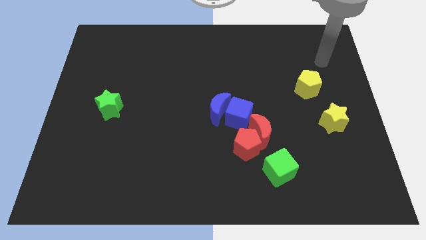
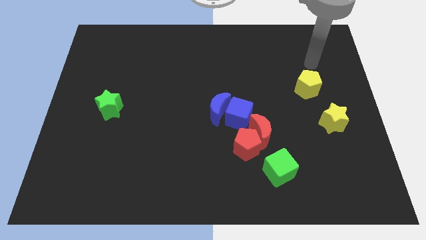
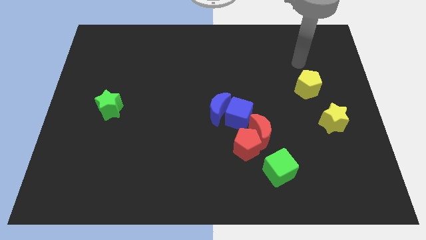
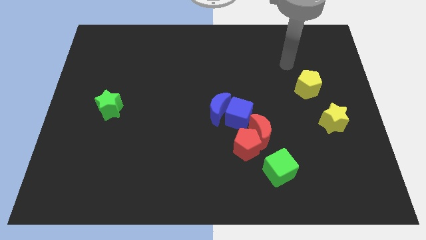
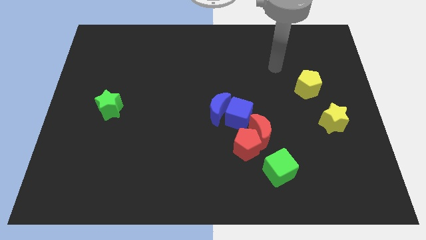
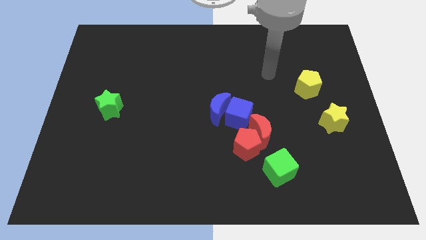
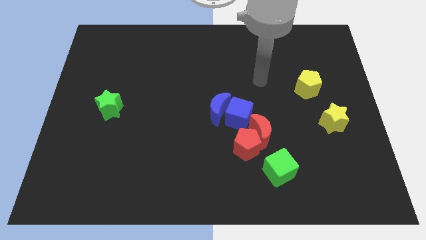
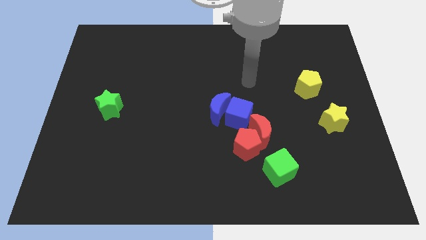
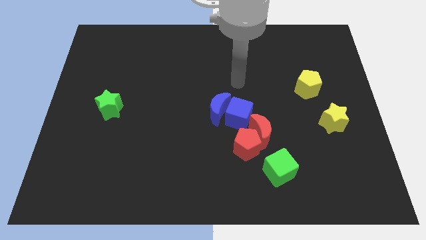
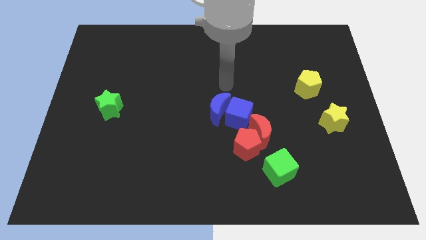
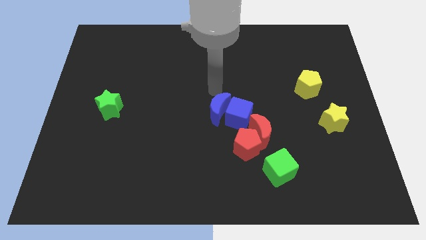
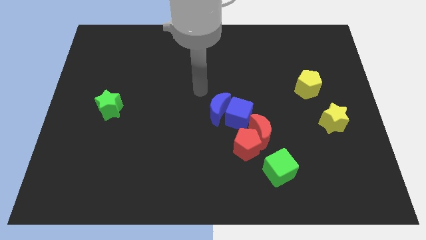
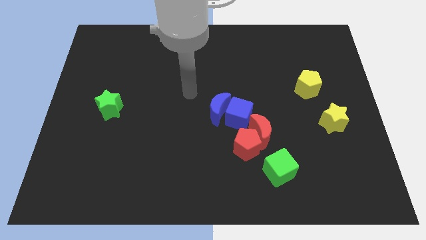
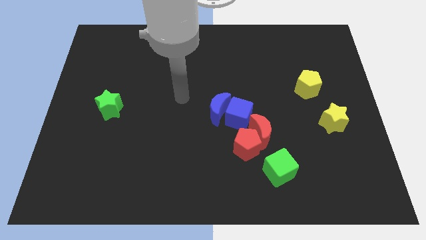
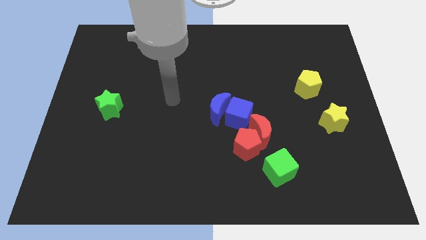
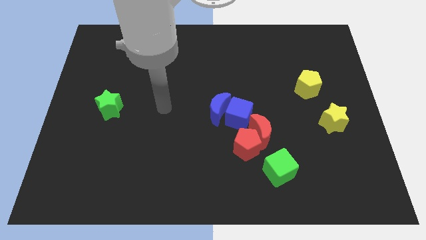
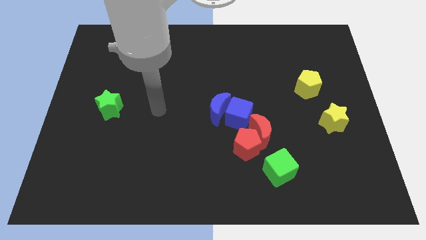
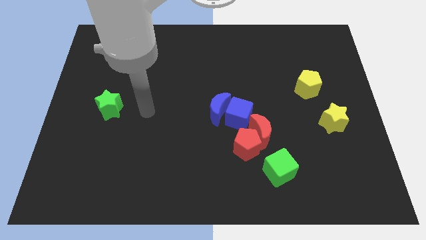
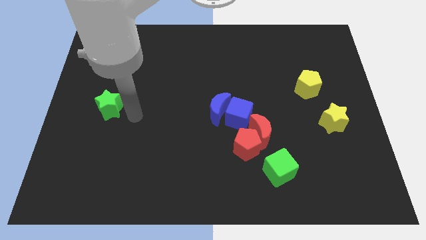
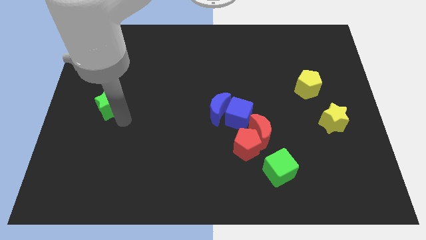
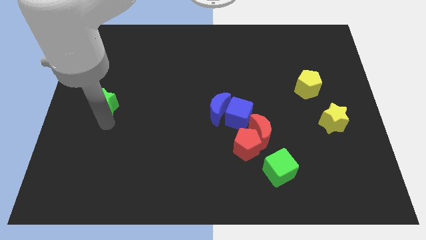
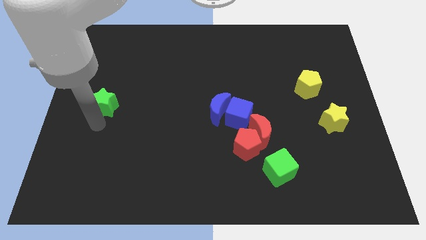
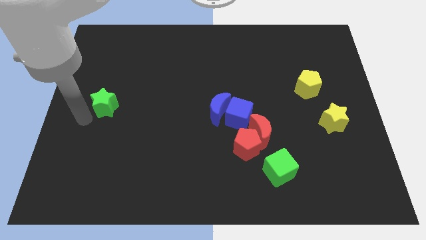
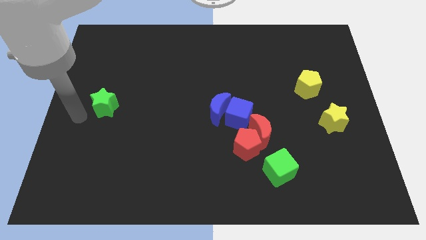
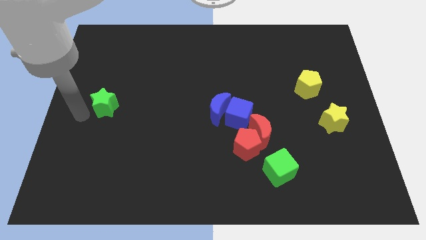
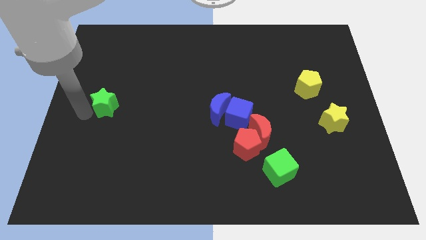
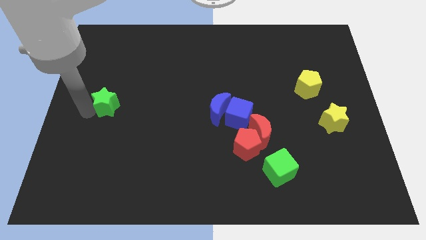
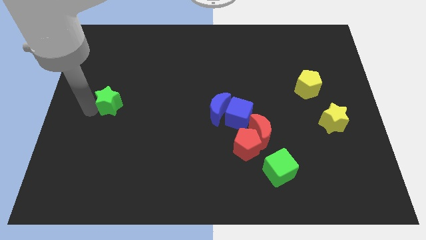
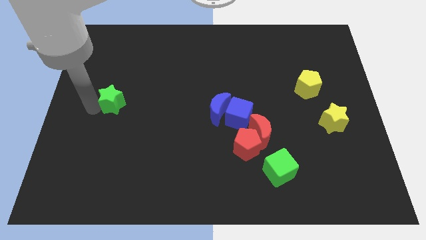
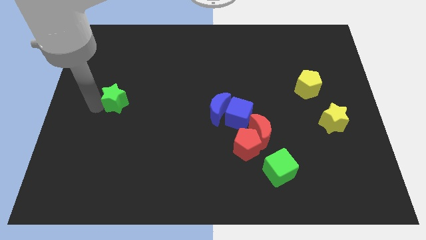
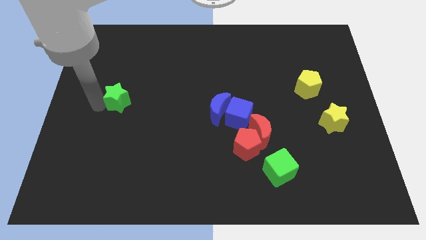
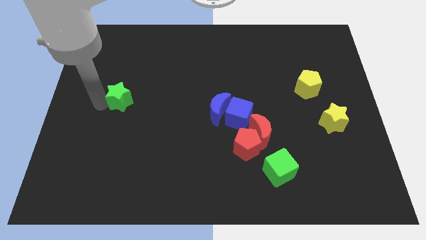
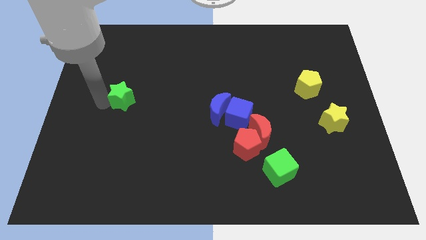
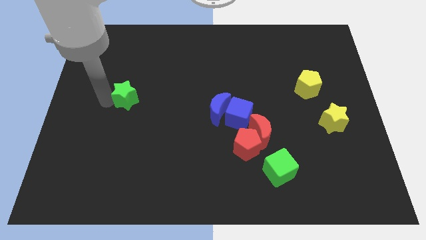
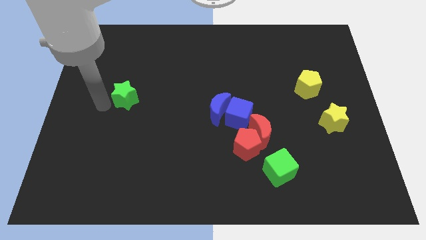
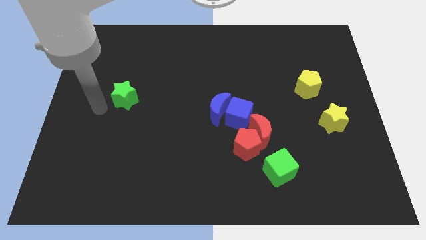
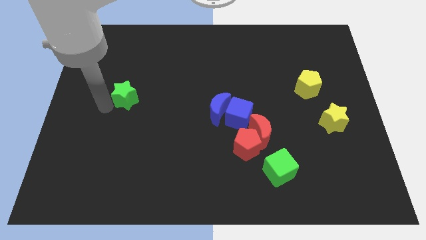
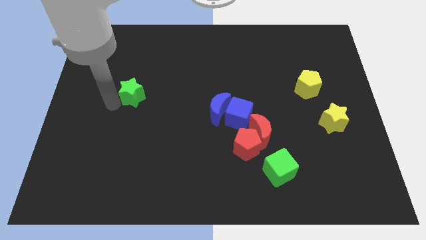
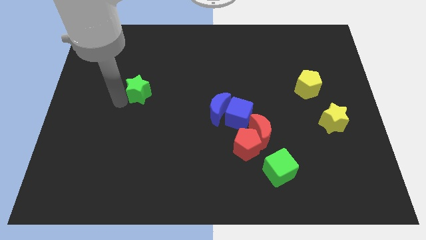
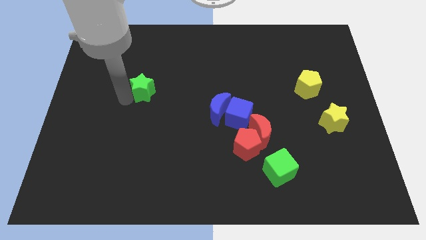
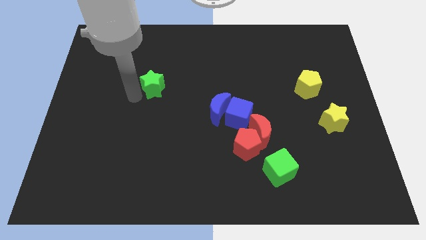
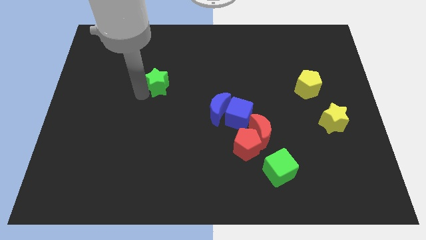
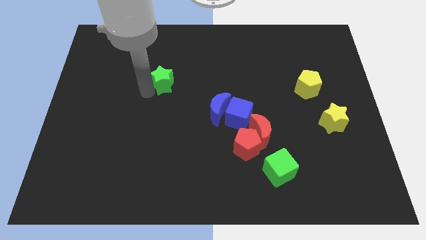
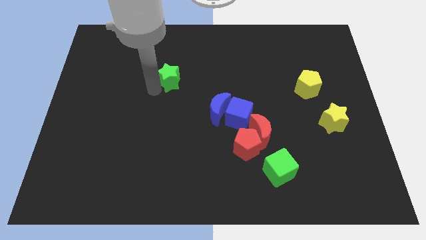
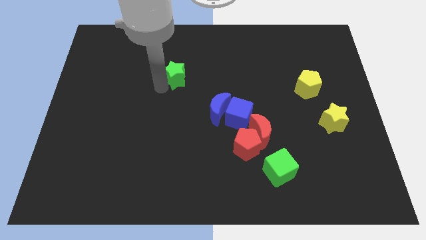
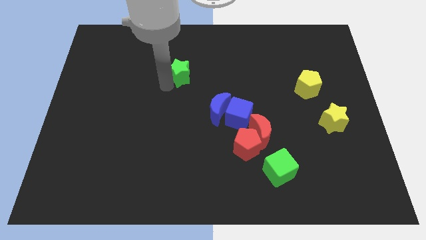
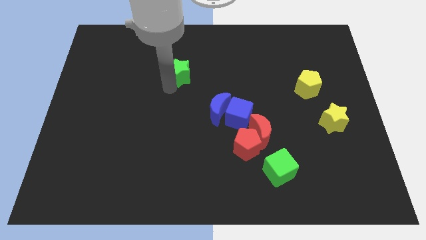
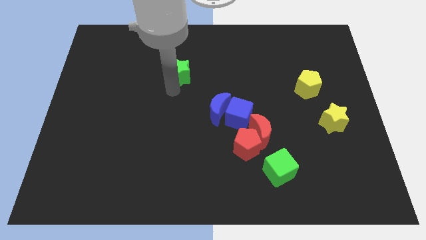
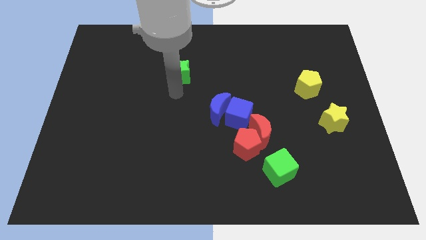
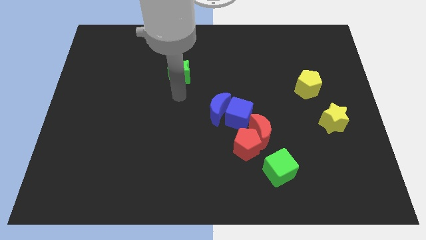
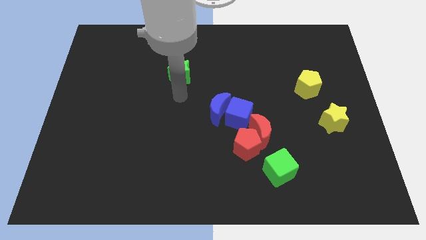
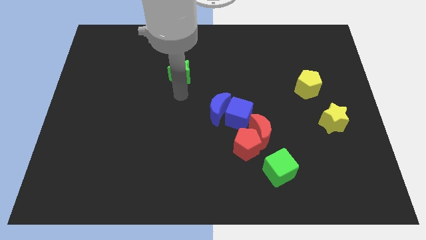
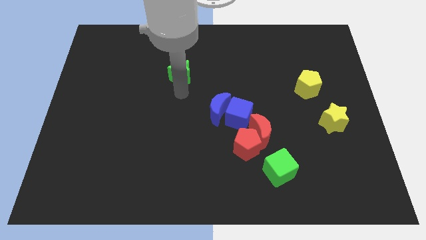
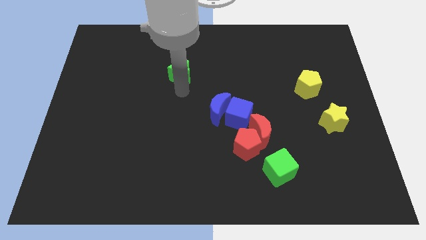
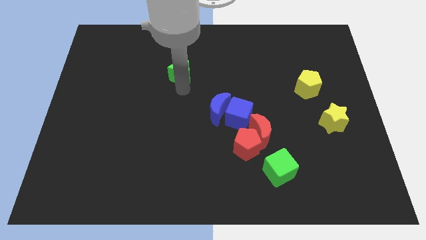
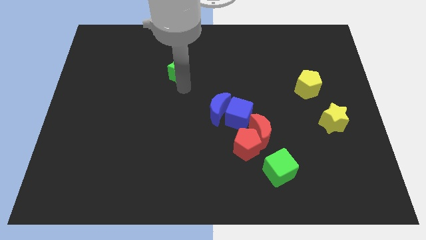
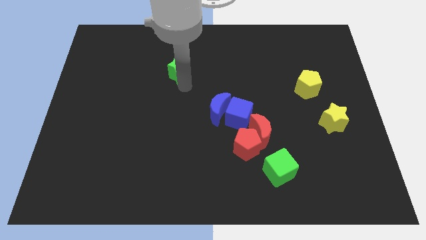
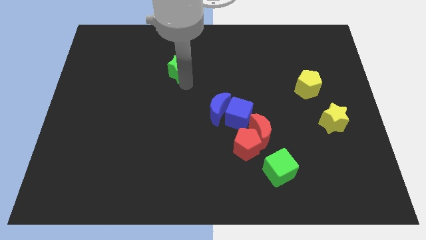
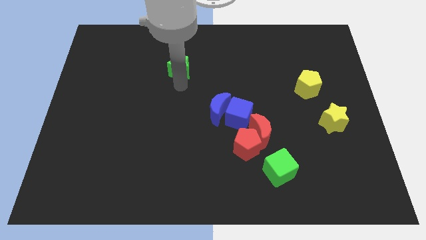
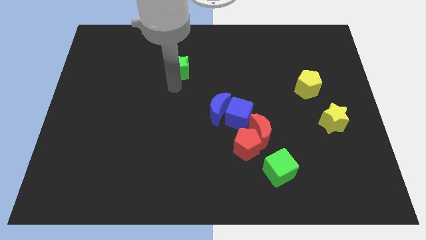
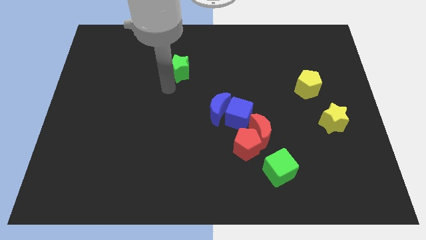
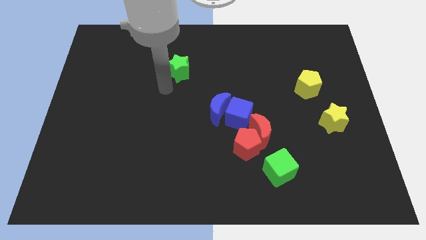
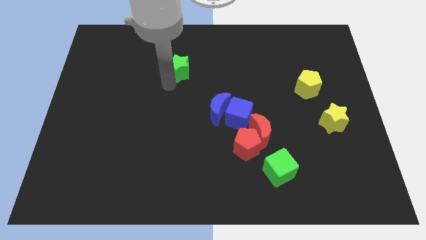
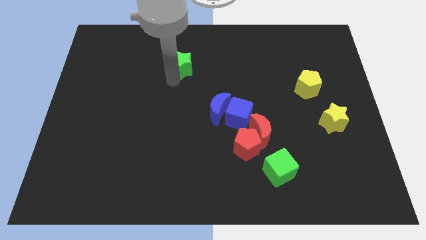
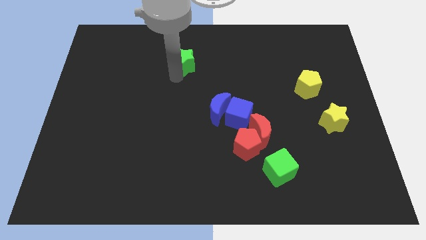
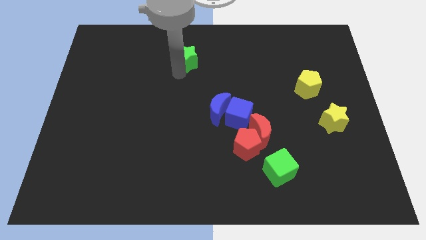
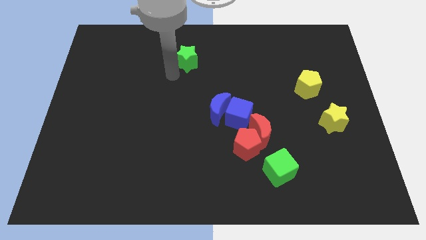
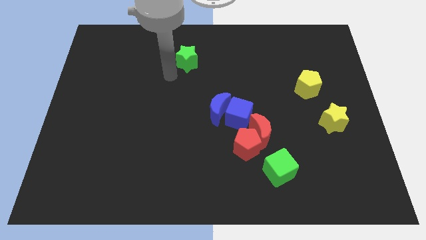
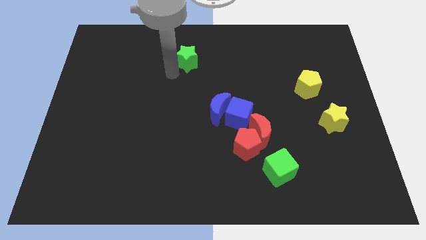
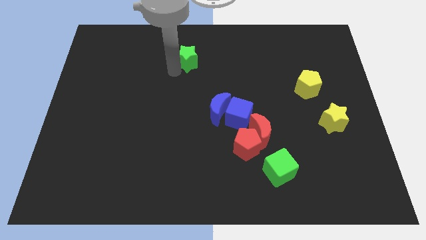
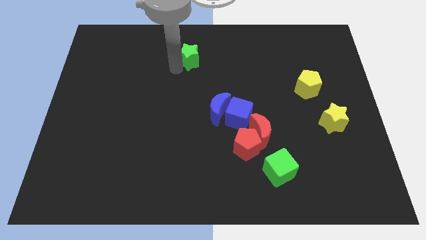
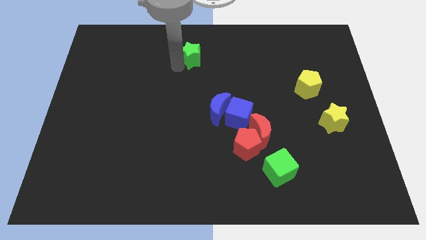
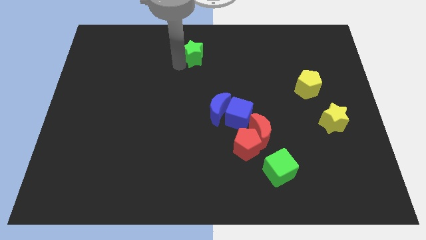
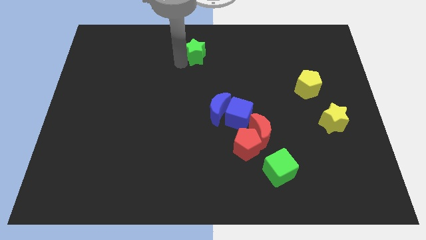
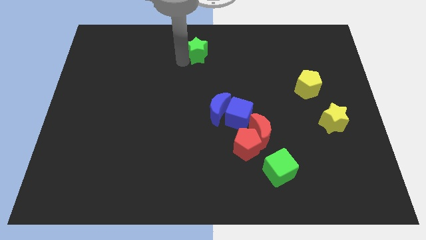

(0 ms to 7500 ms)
push the green star to the top
